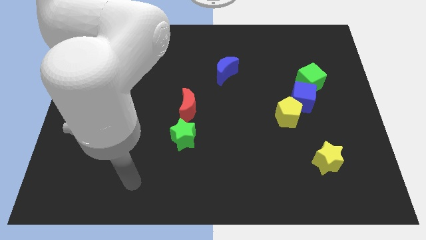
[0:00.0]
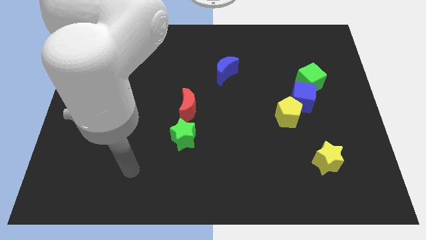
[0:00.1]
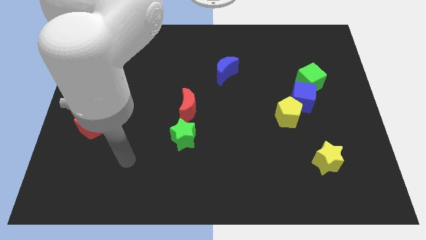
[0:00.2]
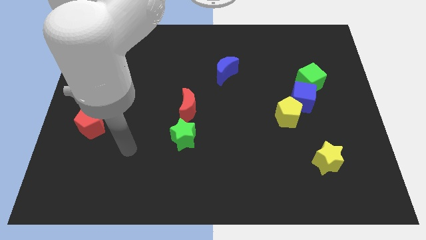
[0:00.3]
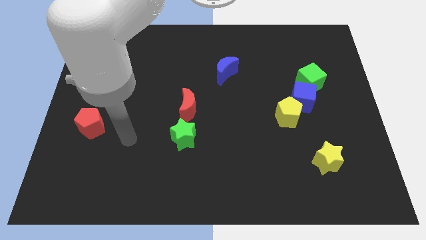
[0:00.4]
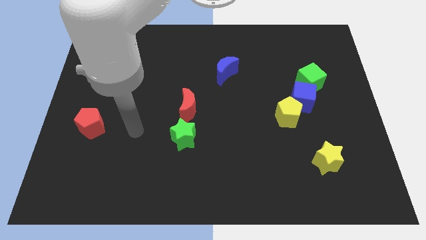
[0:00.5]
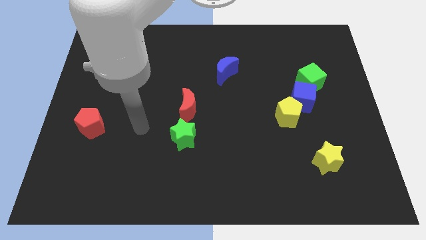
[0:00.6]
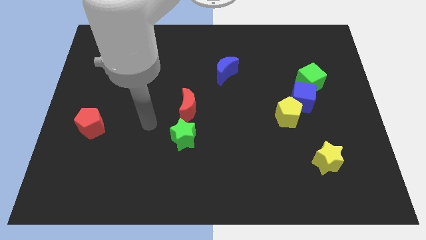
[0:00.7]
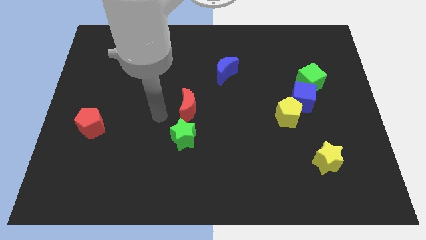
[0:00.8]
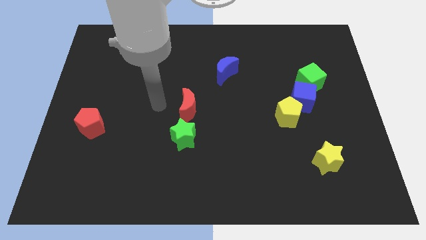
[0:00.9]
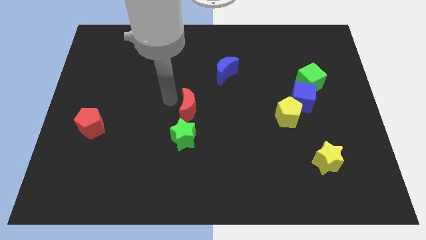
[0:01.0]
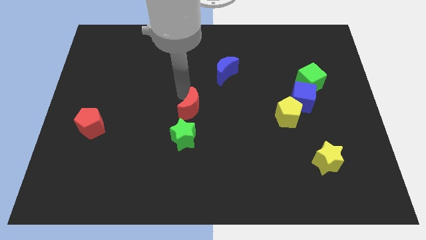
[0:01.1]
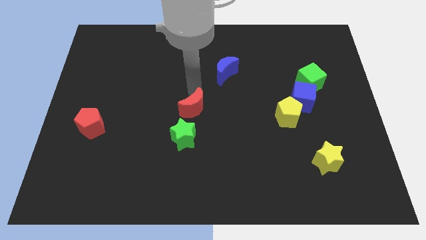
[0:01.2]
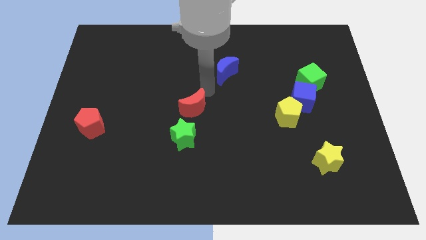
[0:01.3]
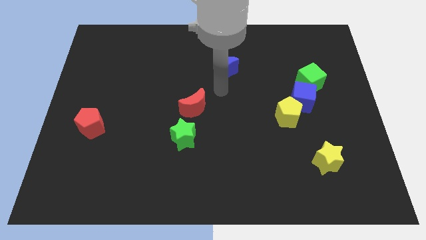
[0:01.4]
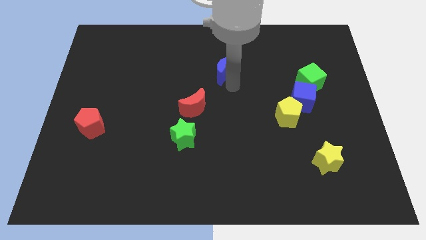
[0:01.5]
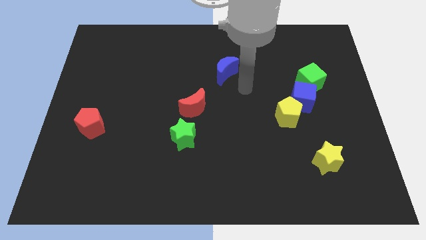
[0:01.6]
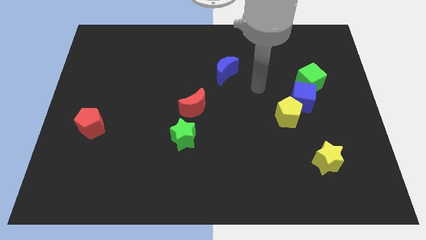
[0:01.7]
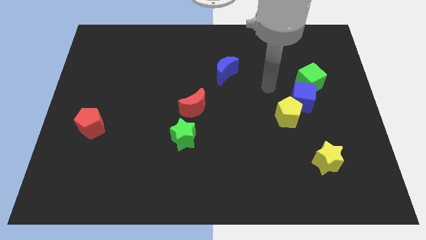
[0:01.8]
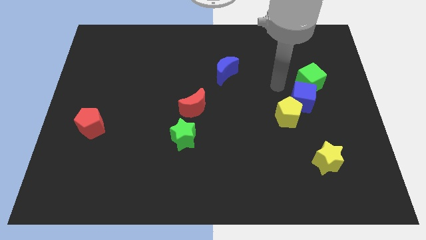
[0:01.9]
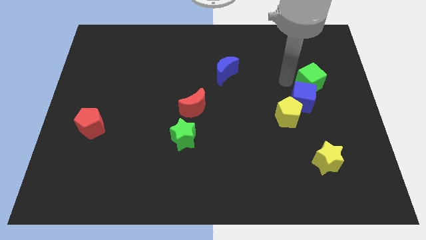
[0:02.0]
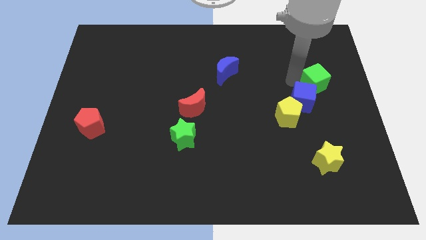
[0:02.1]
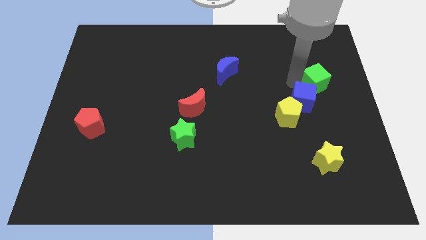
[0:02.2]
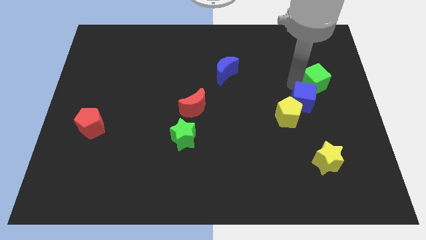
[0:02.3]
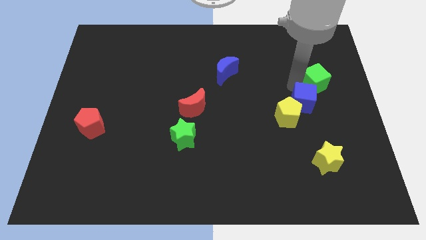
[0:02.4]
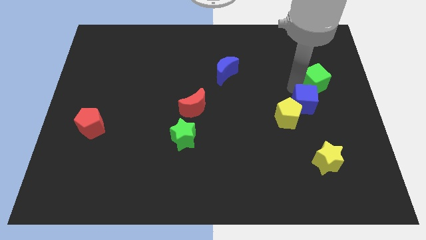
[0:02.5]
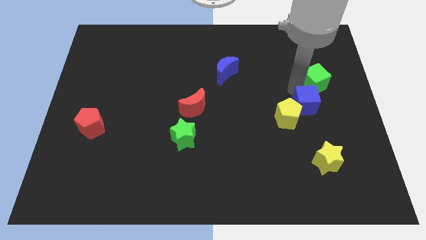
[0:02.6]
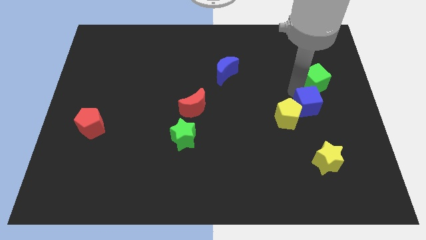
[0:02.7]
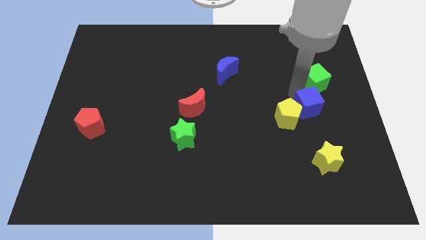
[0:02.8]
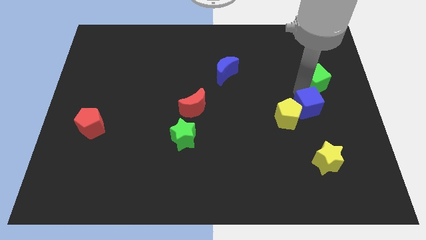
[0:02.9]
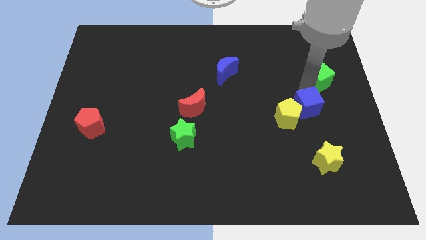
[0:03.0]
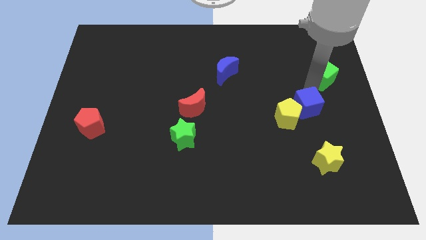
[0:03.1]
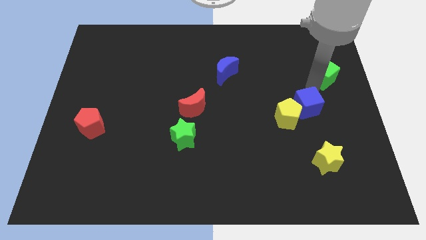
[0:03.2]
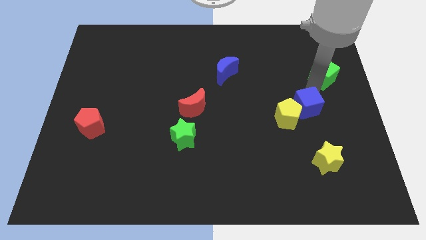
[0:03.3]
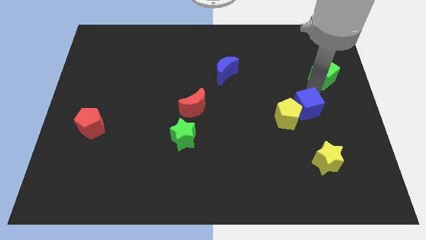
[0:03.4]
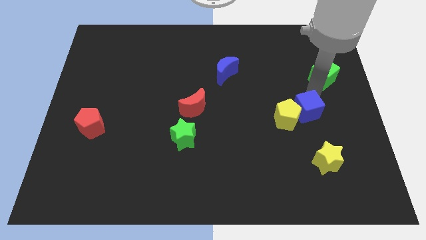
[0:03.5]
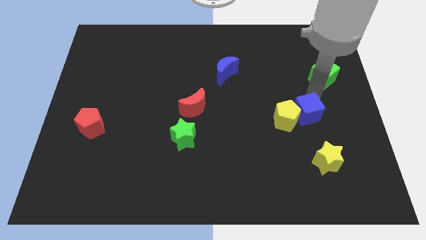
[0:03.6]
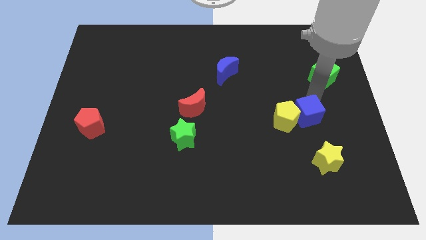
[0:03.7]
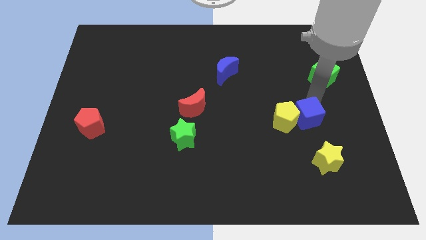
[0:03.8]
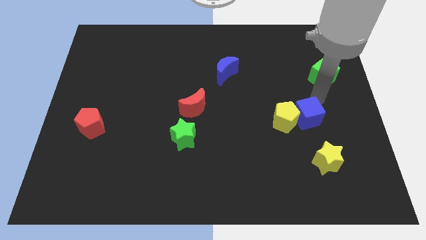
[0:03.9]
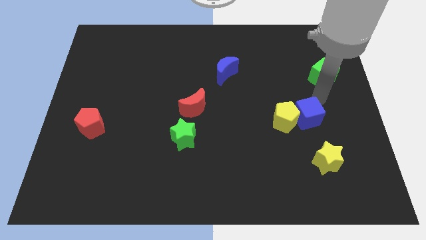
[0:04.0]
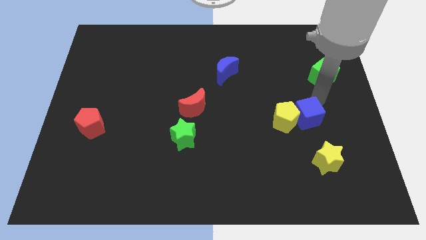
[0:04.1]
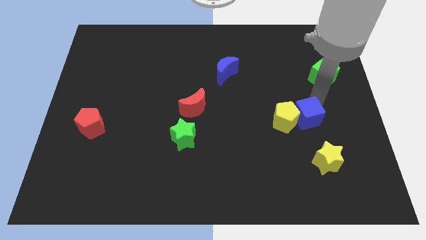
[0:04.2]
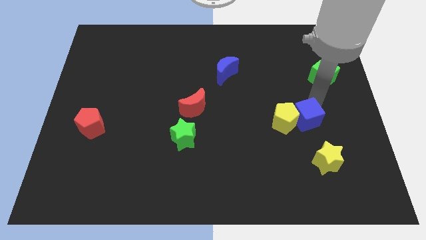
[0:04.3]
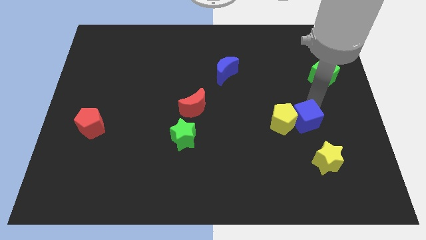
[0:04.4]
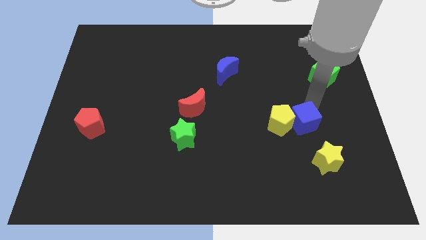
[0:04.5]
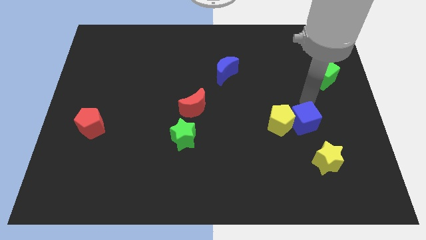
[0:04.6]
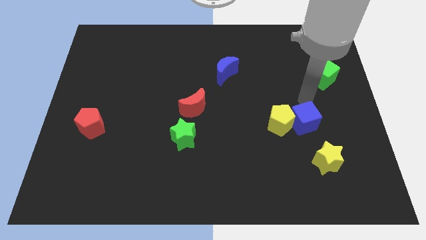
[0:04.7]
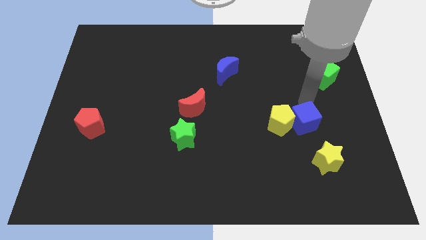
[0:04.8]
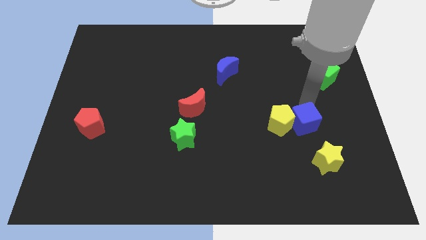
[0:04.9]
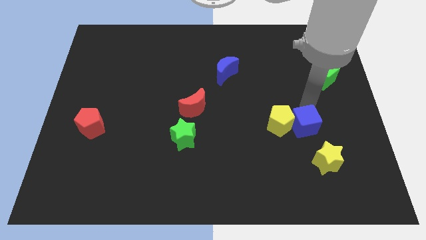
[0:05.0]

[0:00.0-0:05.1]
move the blue cube downwards a bit

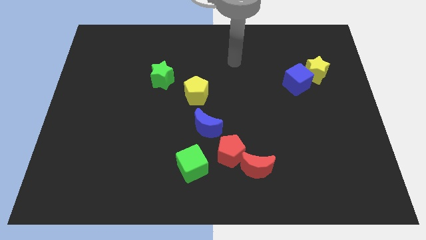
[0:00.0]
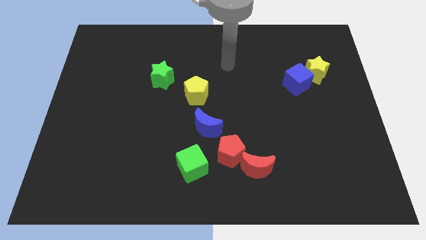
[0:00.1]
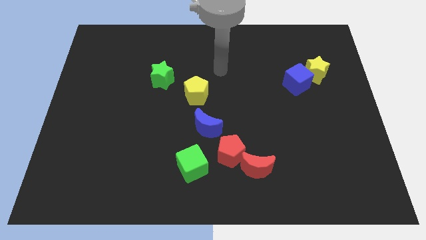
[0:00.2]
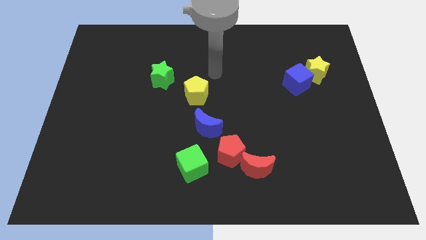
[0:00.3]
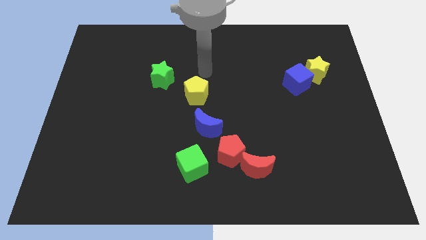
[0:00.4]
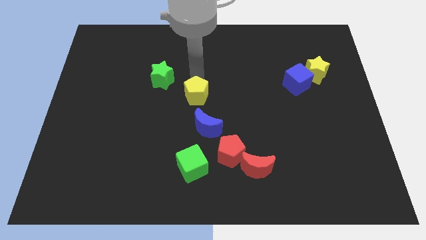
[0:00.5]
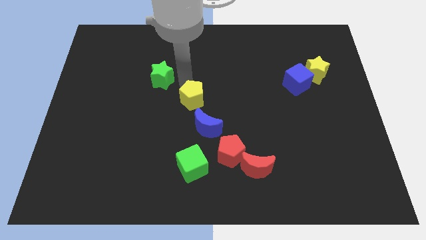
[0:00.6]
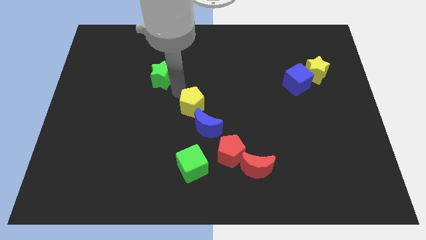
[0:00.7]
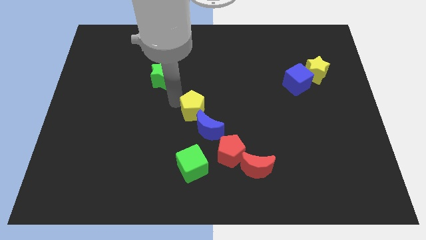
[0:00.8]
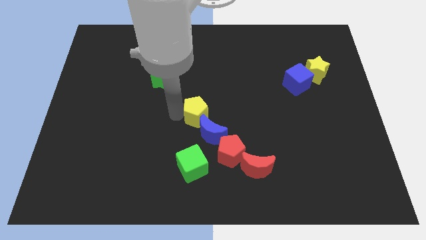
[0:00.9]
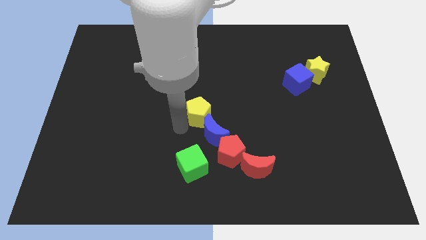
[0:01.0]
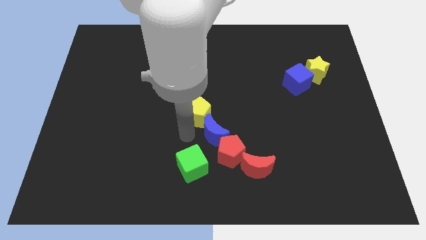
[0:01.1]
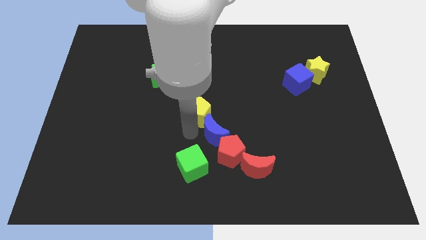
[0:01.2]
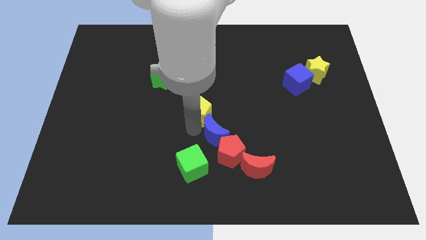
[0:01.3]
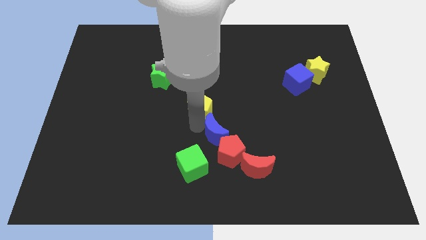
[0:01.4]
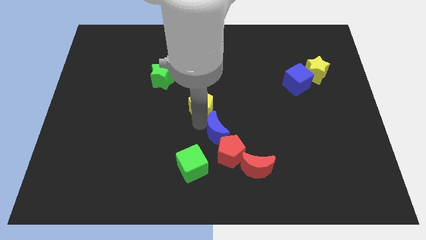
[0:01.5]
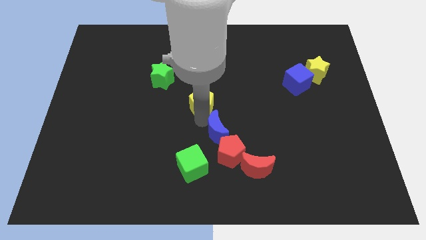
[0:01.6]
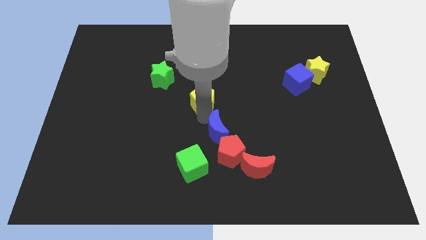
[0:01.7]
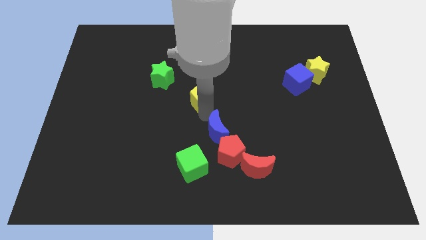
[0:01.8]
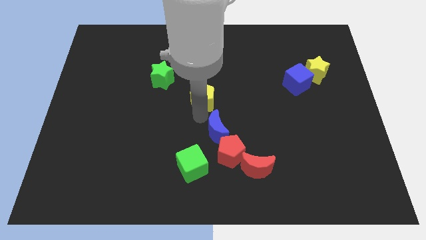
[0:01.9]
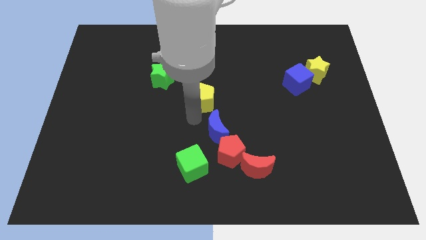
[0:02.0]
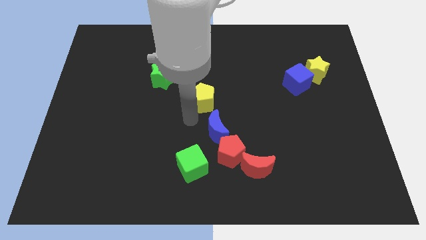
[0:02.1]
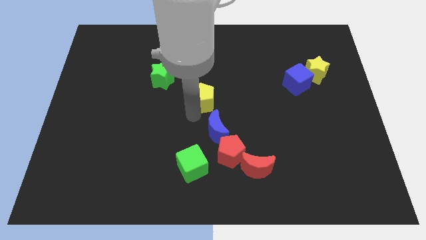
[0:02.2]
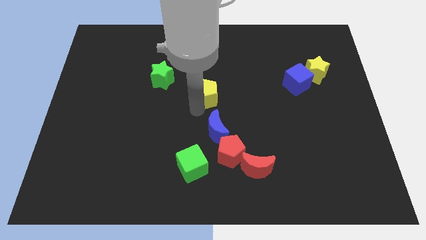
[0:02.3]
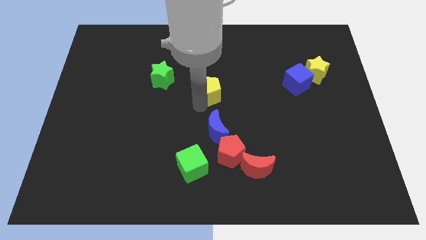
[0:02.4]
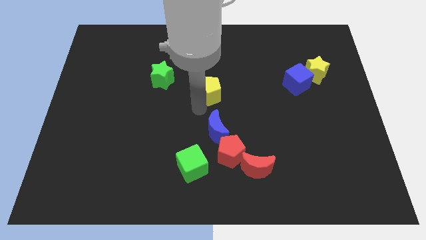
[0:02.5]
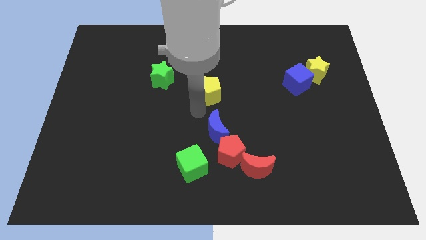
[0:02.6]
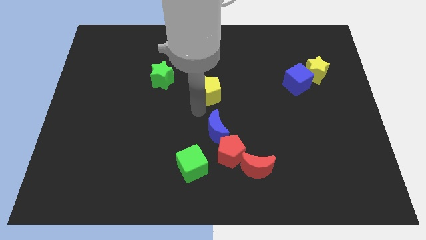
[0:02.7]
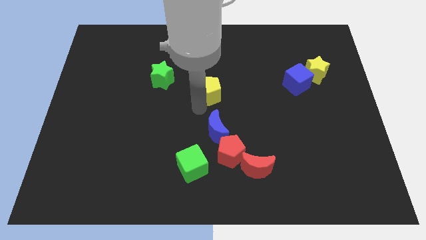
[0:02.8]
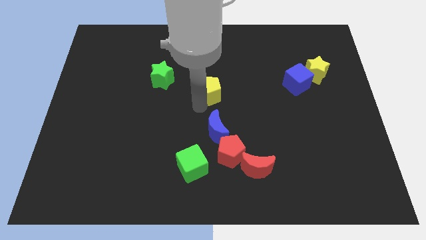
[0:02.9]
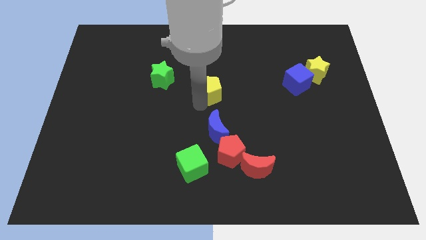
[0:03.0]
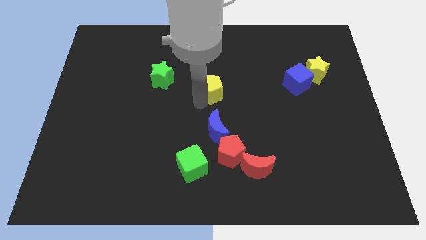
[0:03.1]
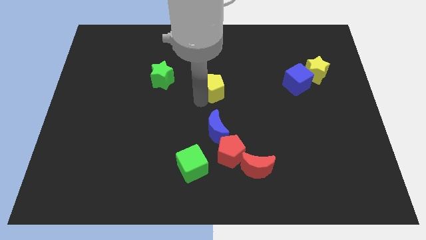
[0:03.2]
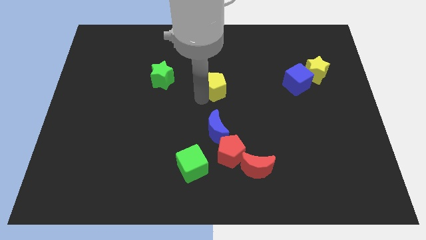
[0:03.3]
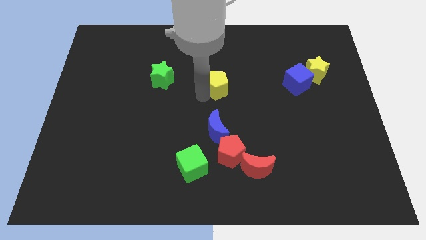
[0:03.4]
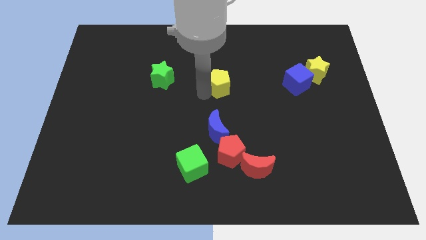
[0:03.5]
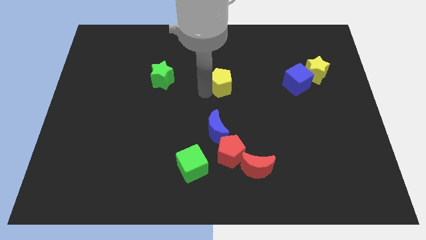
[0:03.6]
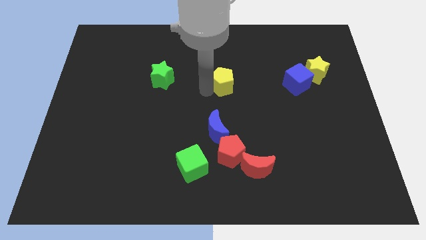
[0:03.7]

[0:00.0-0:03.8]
move the yellow pentagon somewhat diagonally upwards and right
